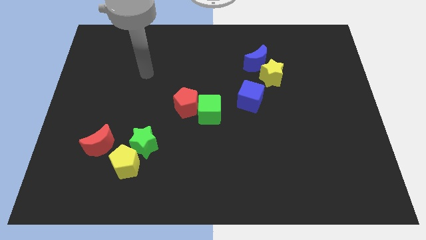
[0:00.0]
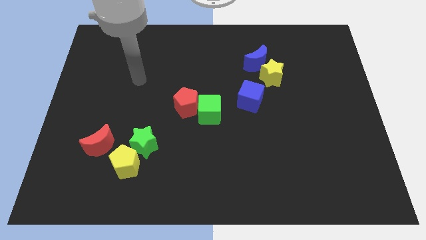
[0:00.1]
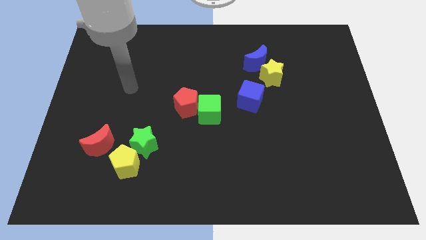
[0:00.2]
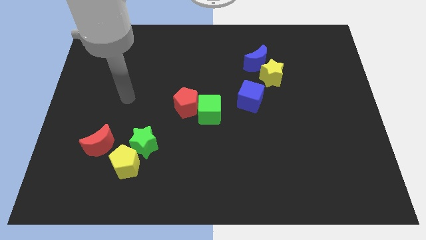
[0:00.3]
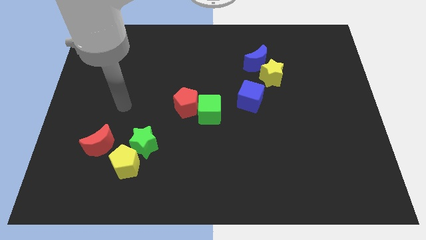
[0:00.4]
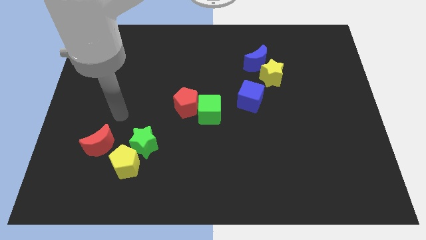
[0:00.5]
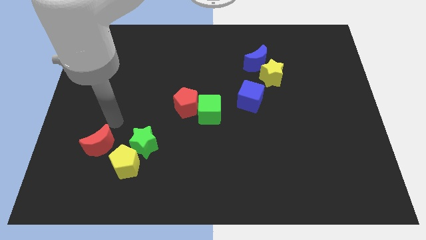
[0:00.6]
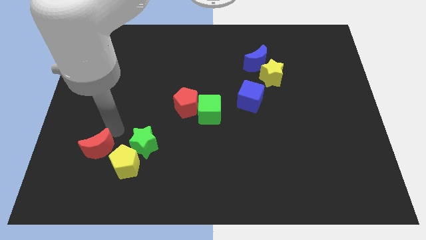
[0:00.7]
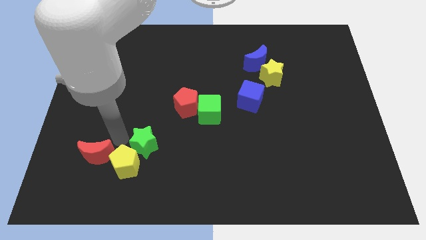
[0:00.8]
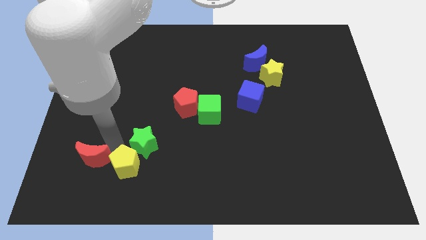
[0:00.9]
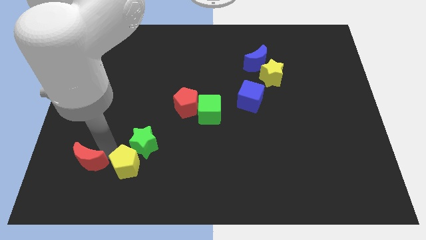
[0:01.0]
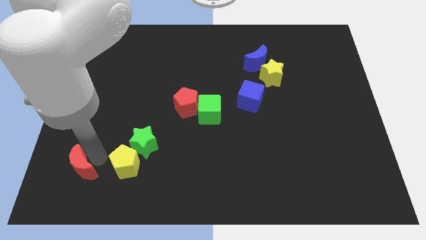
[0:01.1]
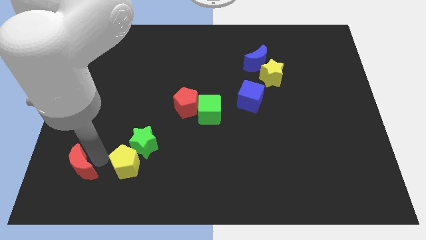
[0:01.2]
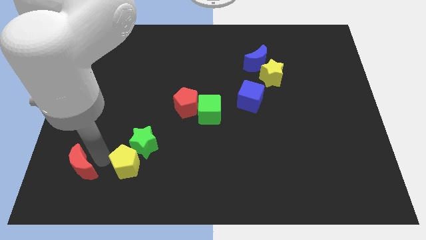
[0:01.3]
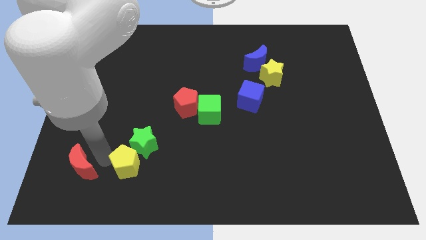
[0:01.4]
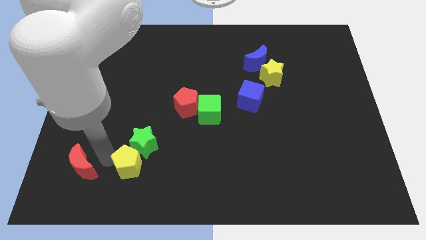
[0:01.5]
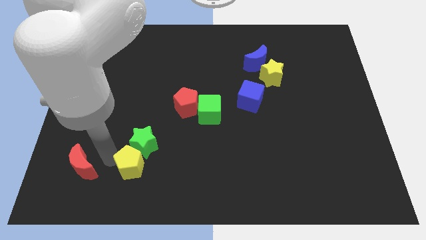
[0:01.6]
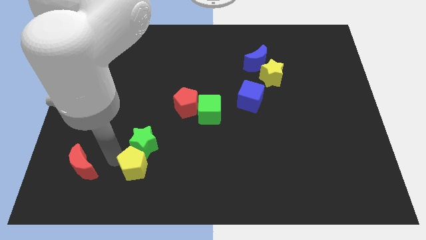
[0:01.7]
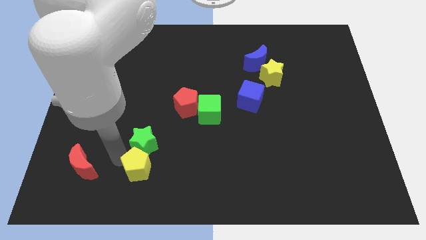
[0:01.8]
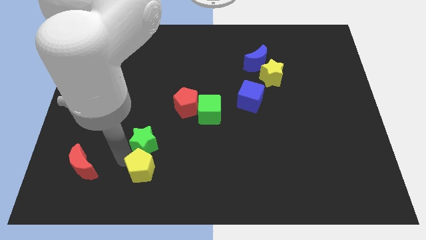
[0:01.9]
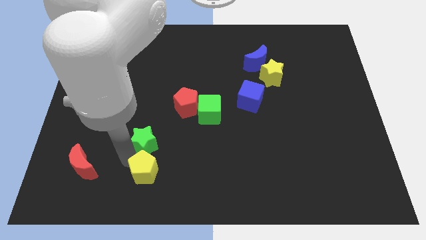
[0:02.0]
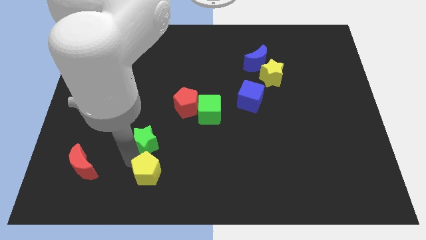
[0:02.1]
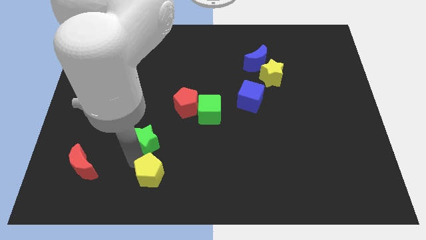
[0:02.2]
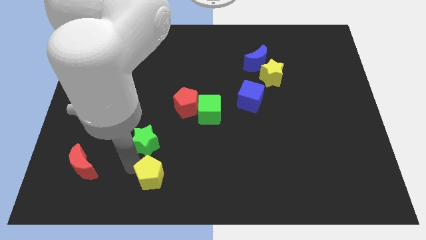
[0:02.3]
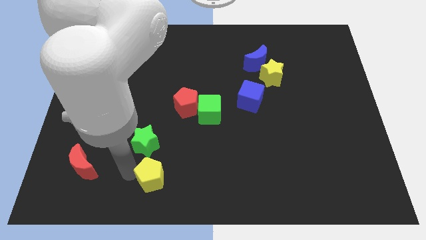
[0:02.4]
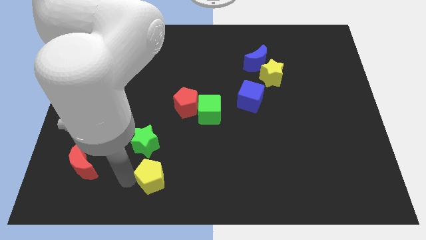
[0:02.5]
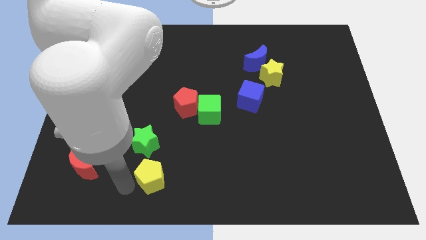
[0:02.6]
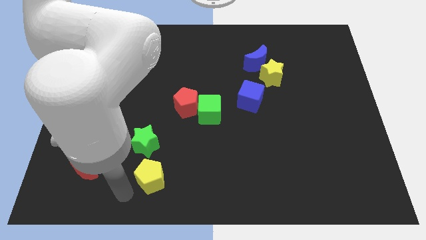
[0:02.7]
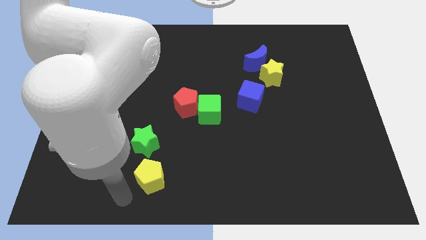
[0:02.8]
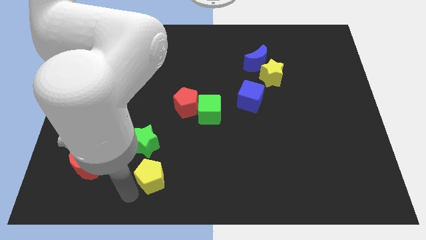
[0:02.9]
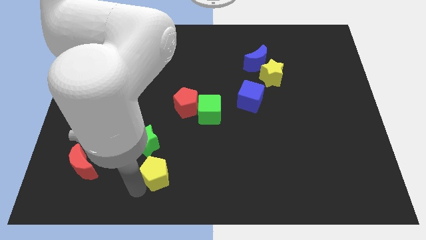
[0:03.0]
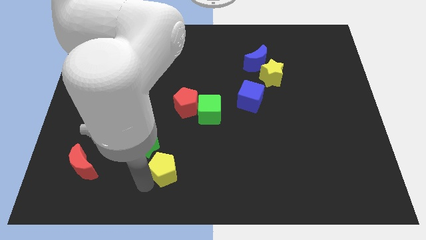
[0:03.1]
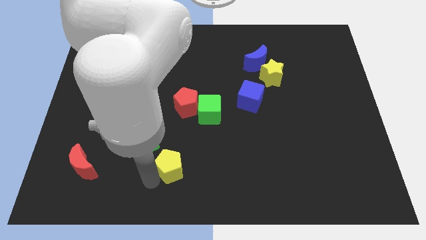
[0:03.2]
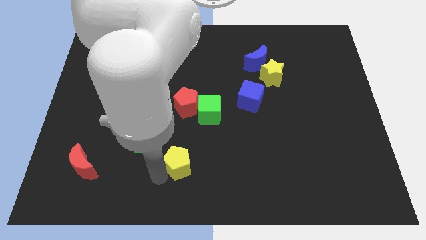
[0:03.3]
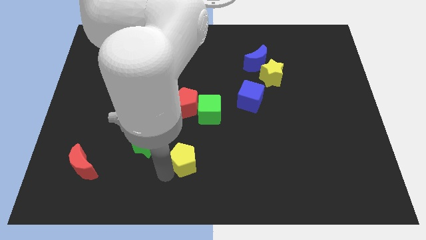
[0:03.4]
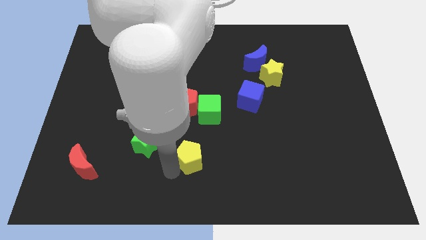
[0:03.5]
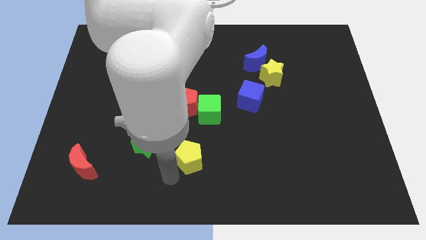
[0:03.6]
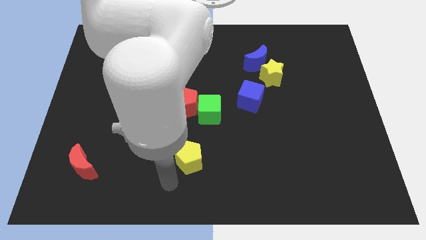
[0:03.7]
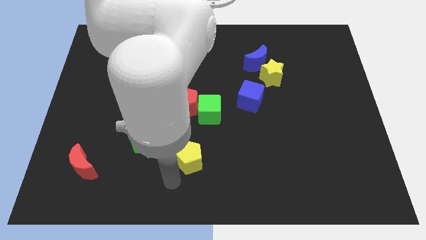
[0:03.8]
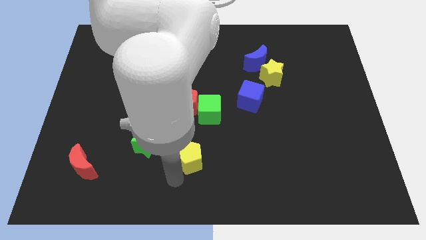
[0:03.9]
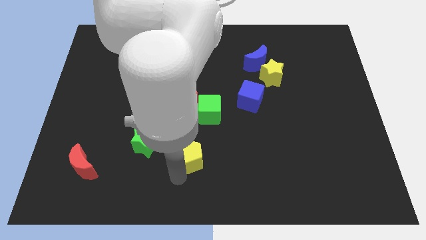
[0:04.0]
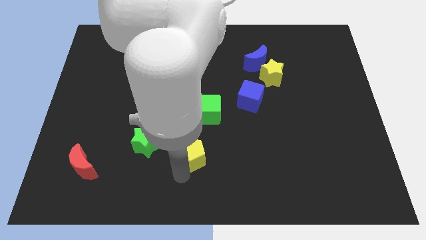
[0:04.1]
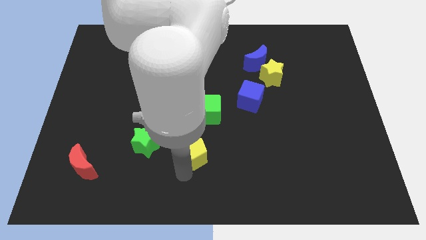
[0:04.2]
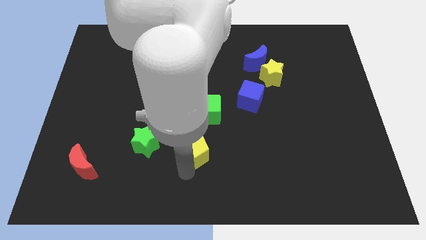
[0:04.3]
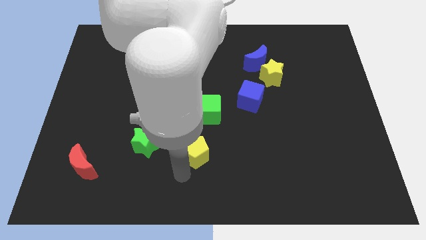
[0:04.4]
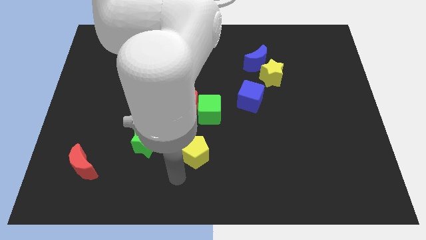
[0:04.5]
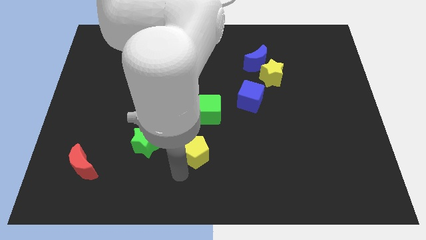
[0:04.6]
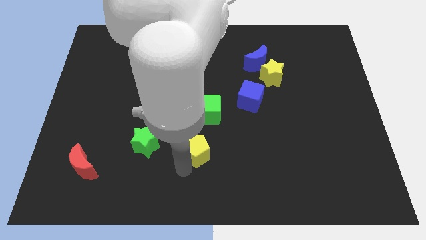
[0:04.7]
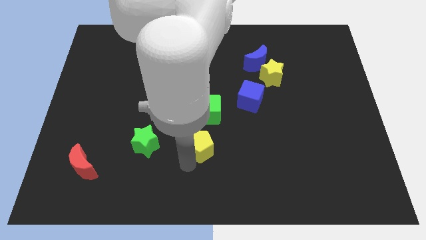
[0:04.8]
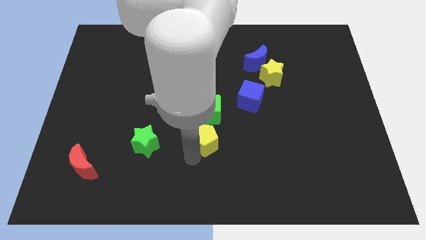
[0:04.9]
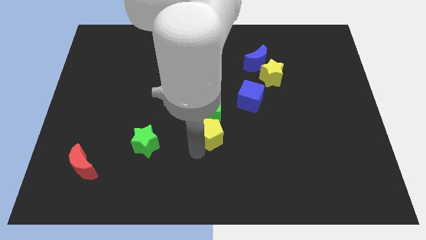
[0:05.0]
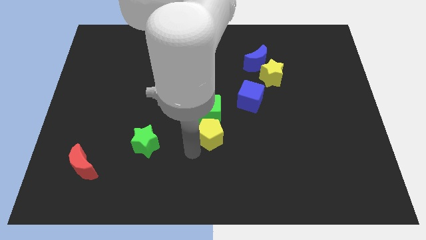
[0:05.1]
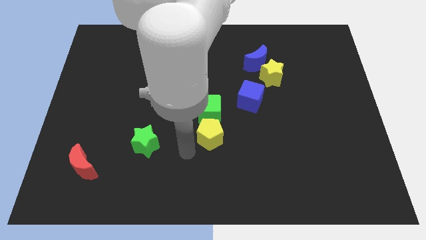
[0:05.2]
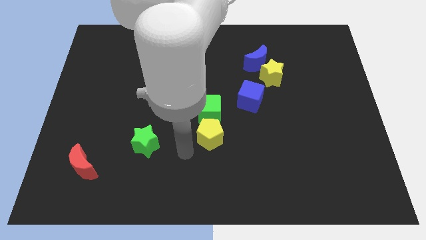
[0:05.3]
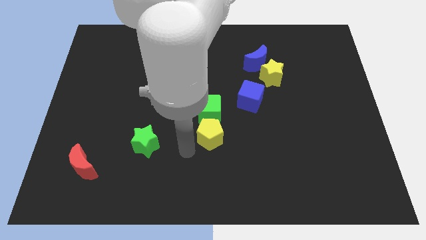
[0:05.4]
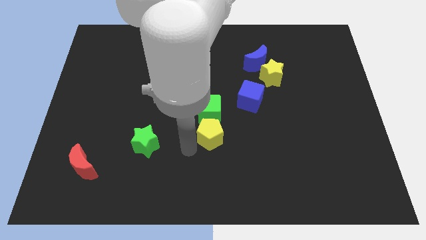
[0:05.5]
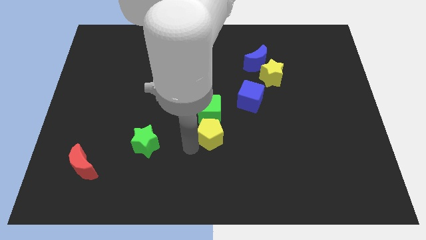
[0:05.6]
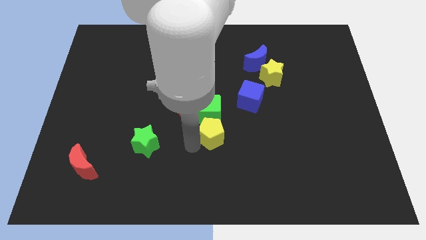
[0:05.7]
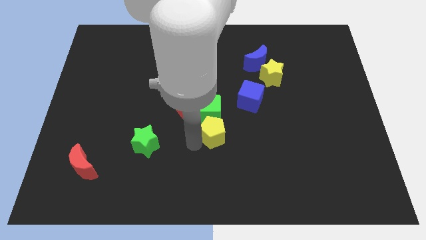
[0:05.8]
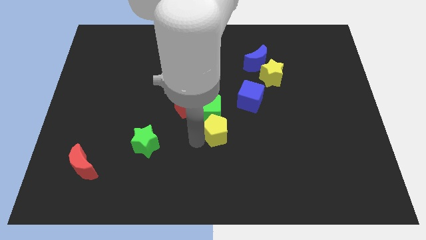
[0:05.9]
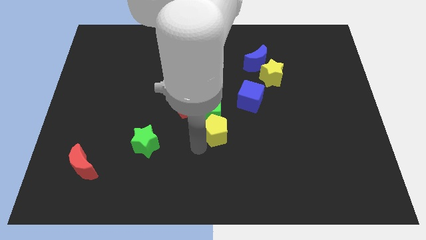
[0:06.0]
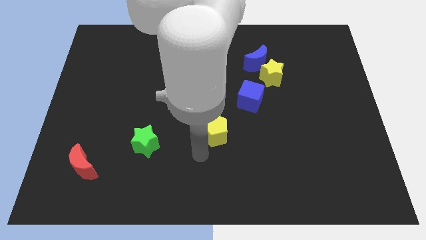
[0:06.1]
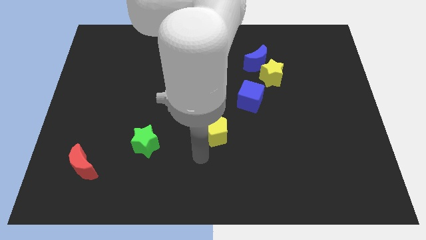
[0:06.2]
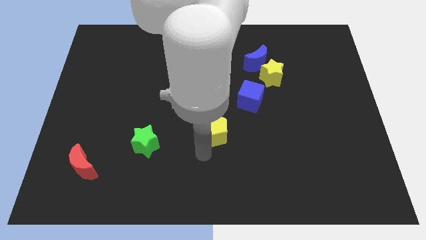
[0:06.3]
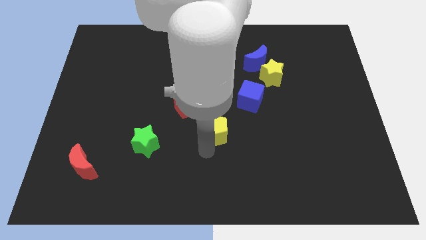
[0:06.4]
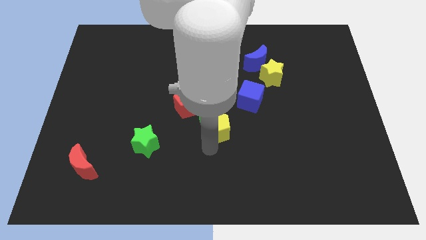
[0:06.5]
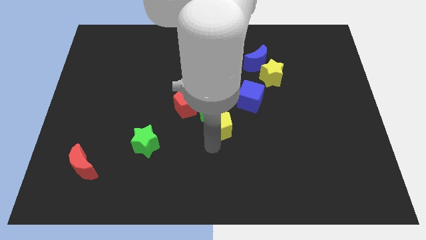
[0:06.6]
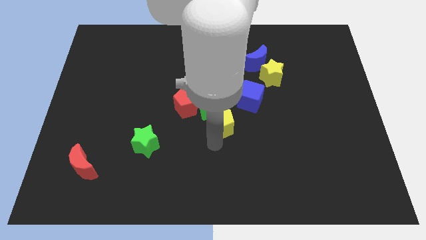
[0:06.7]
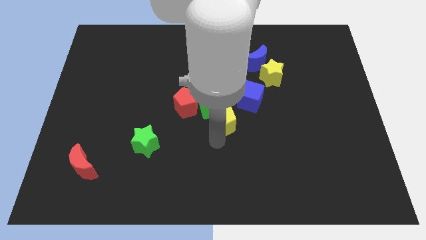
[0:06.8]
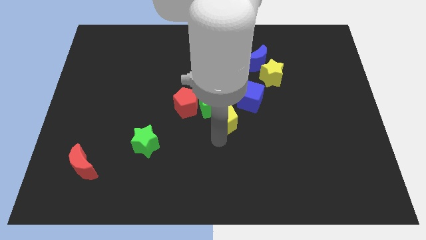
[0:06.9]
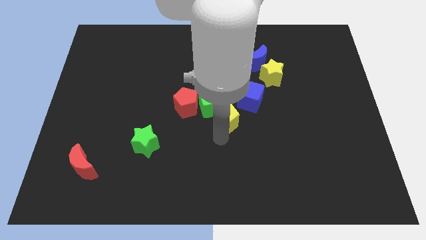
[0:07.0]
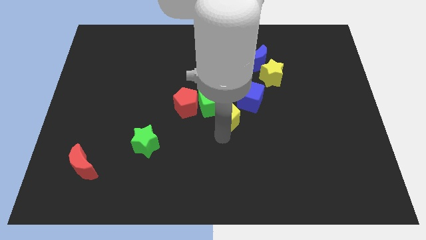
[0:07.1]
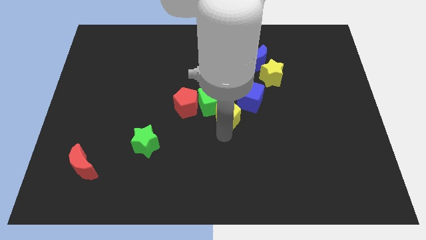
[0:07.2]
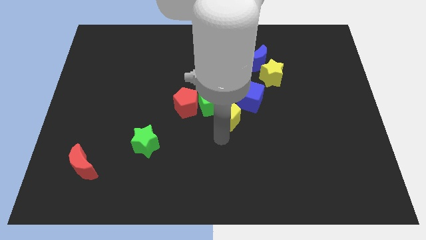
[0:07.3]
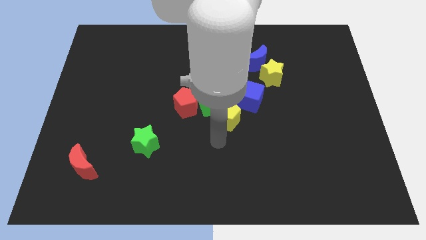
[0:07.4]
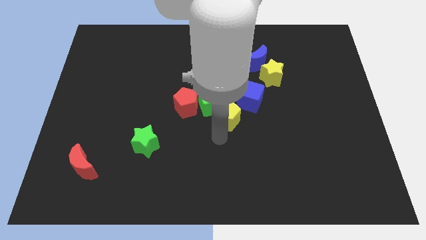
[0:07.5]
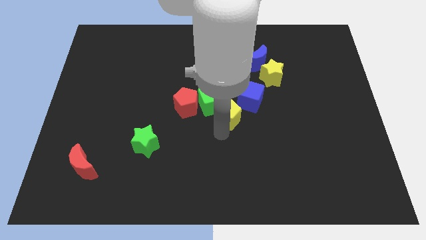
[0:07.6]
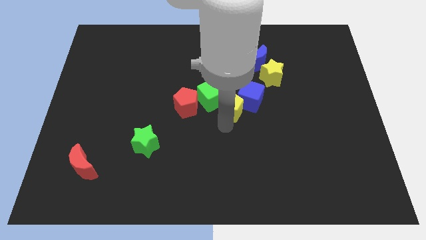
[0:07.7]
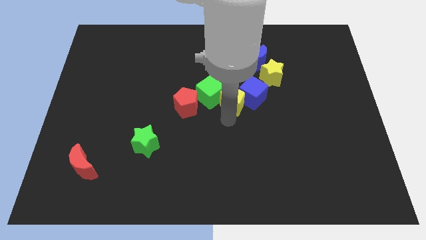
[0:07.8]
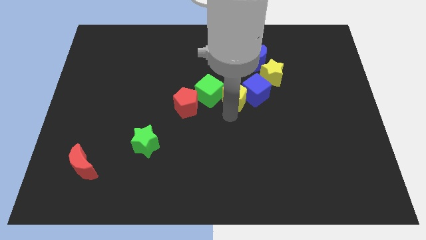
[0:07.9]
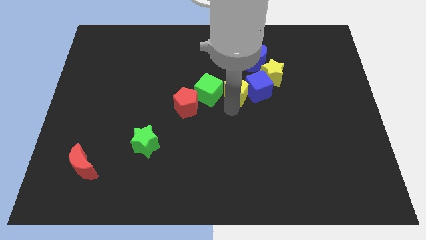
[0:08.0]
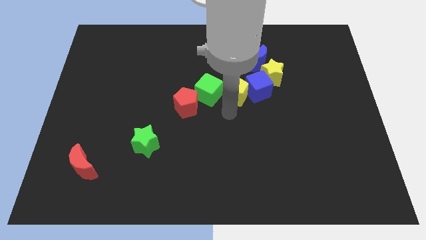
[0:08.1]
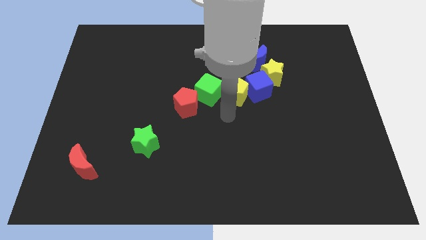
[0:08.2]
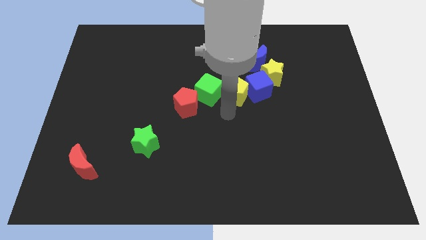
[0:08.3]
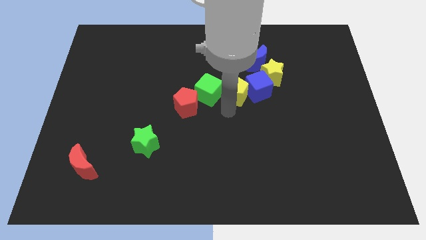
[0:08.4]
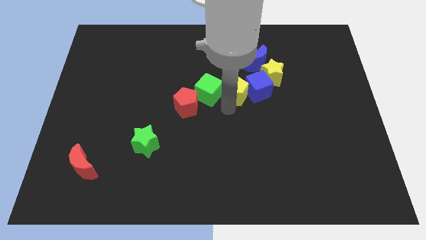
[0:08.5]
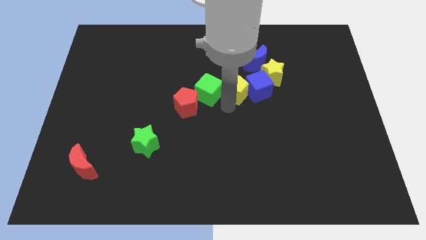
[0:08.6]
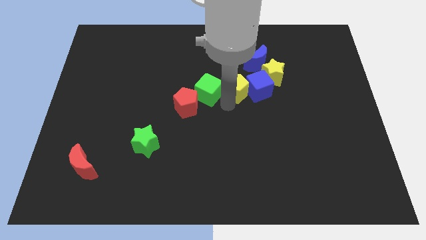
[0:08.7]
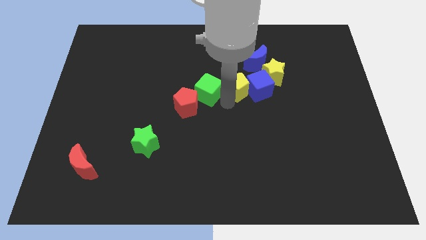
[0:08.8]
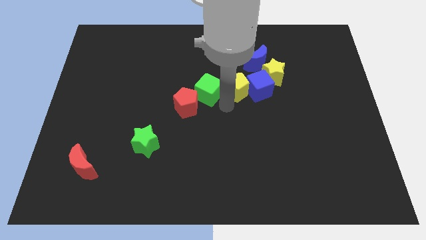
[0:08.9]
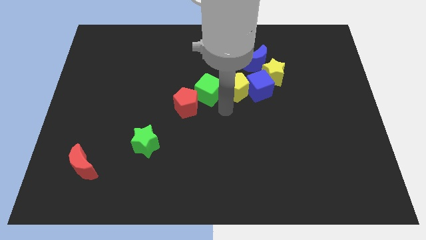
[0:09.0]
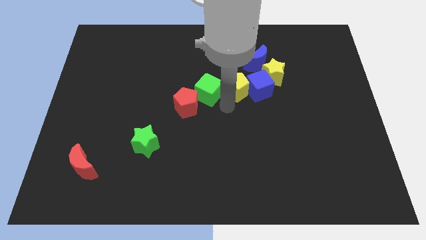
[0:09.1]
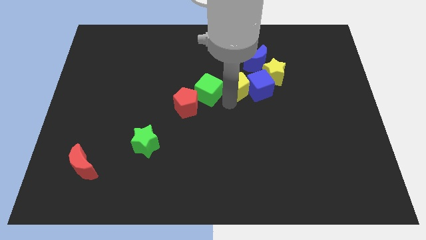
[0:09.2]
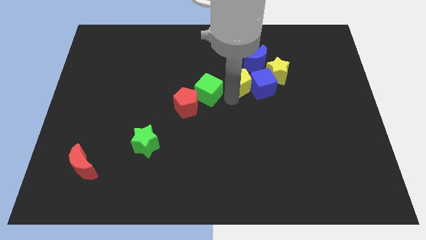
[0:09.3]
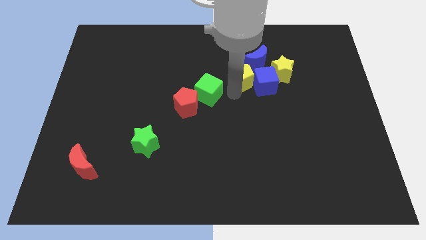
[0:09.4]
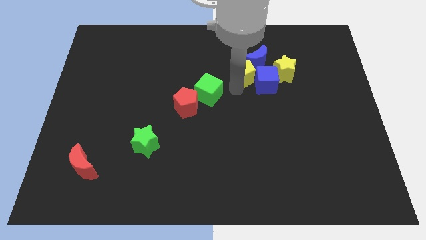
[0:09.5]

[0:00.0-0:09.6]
slide the yellow pentagon to the blue moon
